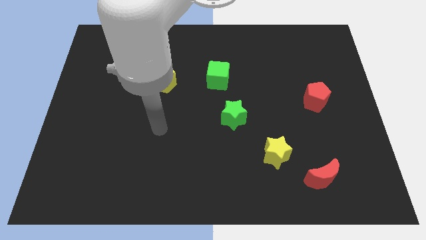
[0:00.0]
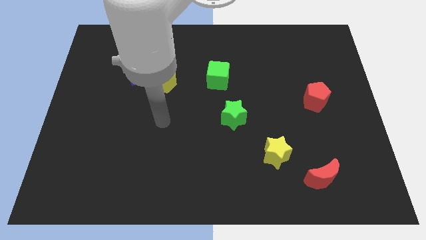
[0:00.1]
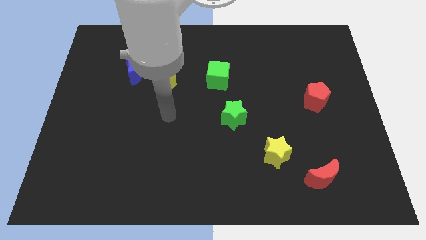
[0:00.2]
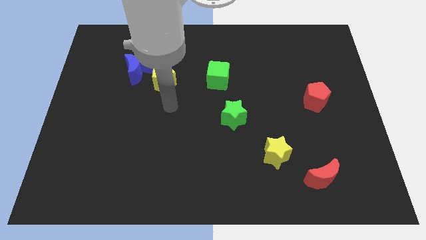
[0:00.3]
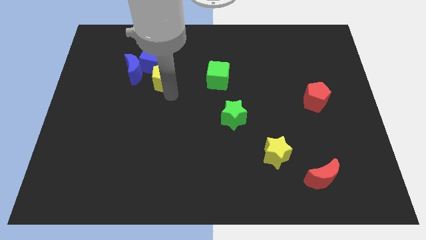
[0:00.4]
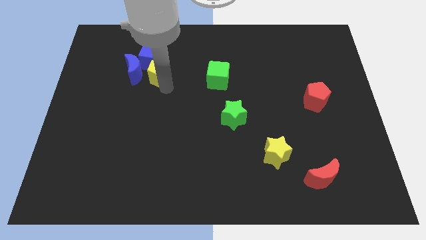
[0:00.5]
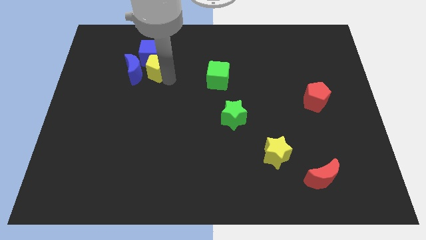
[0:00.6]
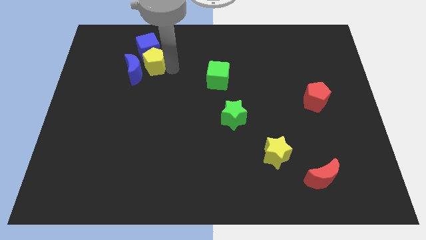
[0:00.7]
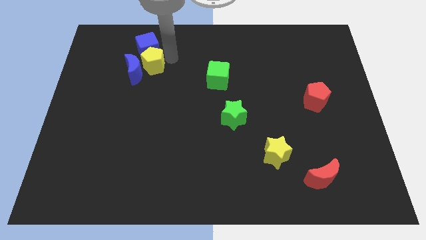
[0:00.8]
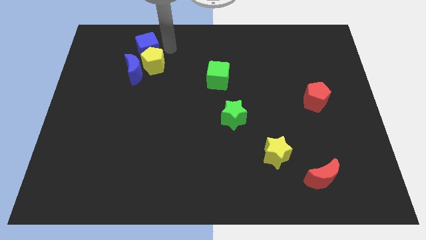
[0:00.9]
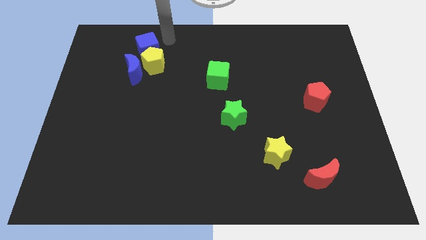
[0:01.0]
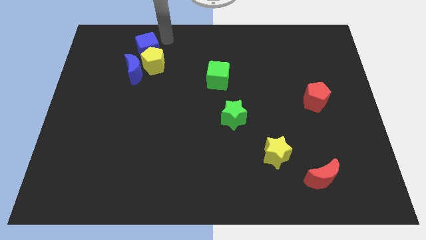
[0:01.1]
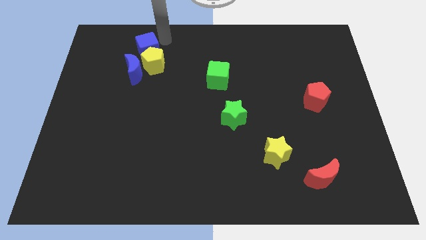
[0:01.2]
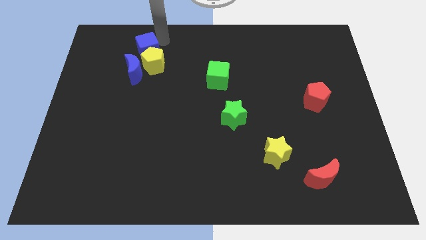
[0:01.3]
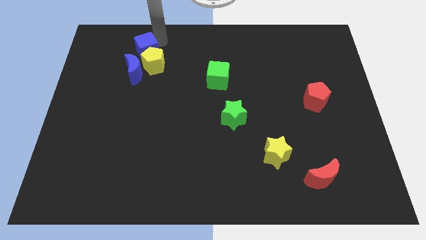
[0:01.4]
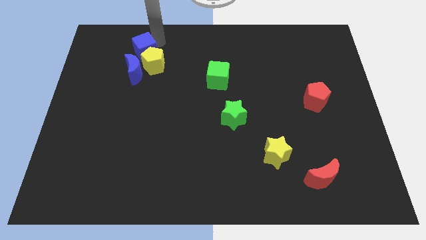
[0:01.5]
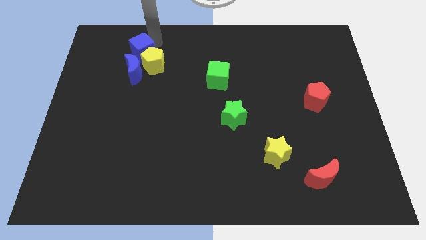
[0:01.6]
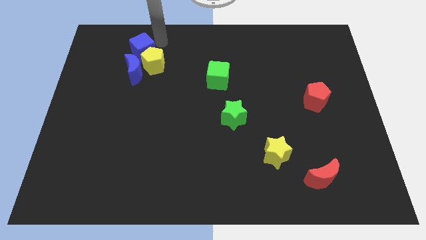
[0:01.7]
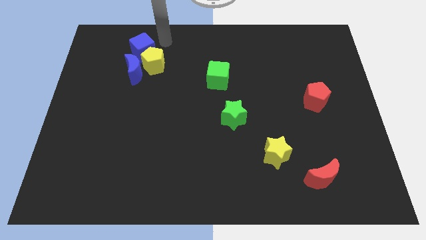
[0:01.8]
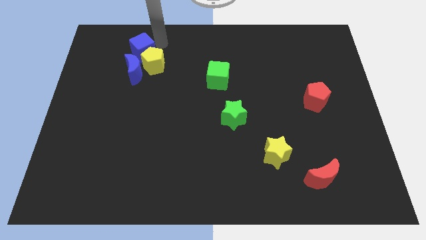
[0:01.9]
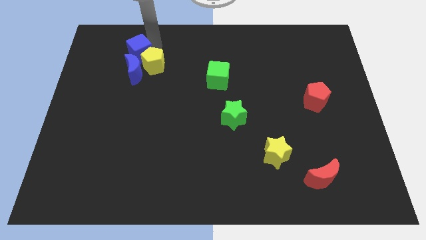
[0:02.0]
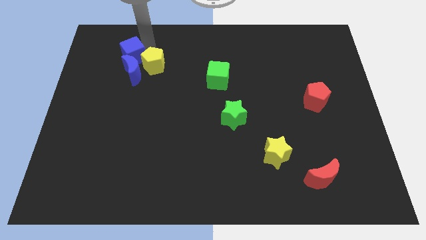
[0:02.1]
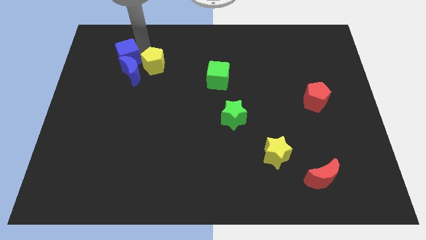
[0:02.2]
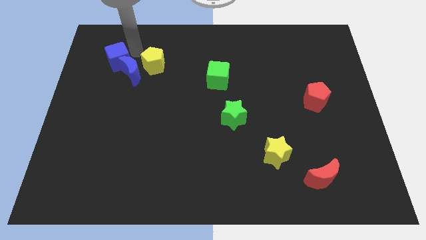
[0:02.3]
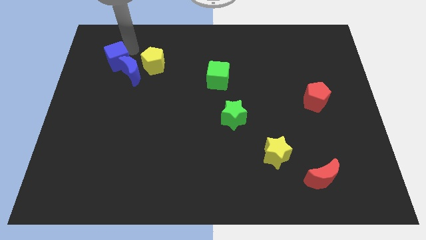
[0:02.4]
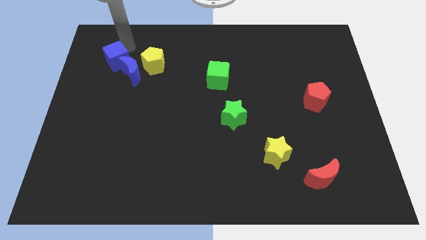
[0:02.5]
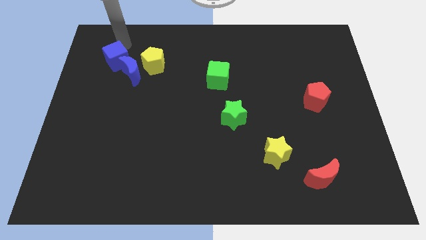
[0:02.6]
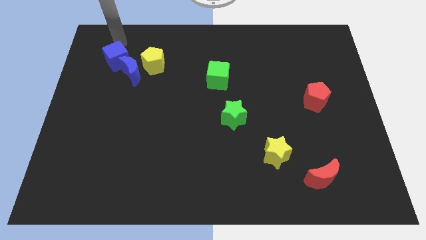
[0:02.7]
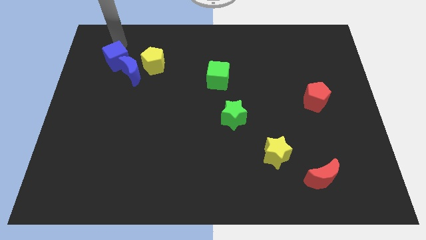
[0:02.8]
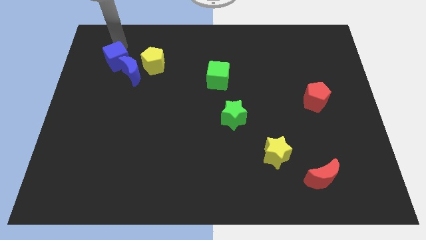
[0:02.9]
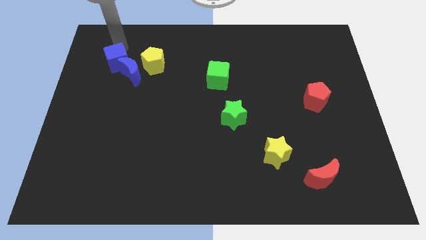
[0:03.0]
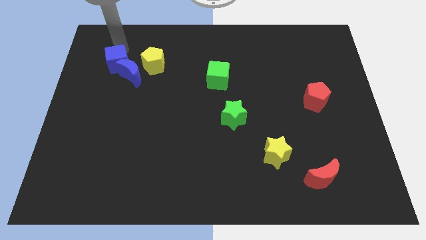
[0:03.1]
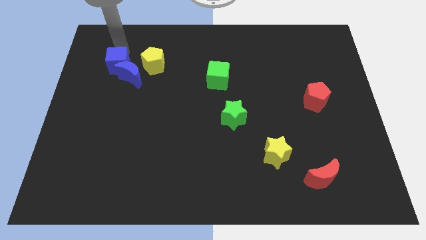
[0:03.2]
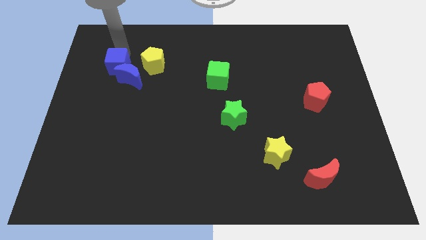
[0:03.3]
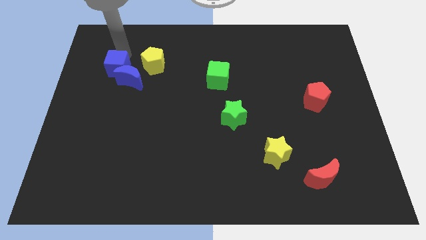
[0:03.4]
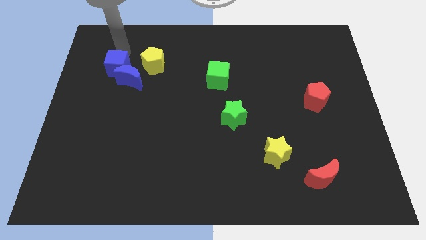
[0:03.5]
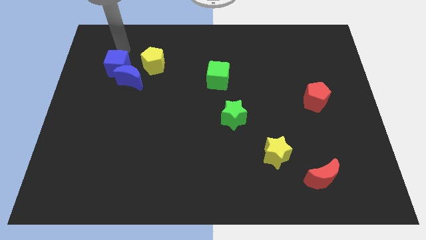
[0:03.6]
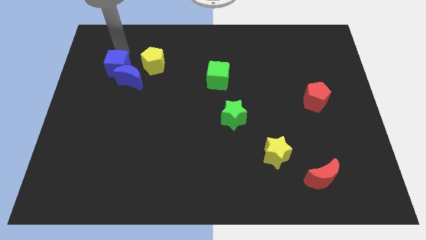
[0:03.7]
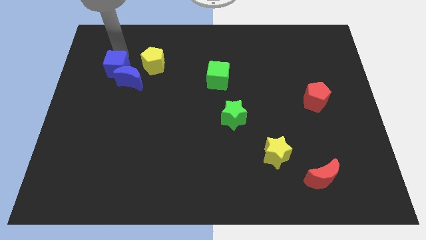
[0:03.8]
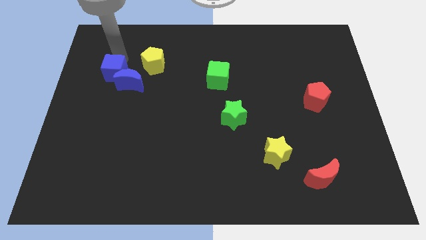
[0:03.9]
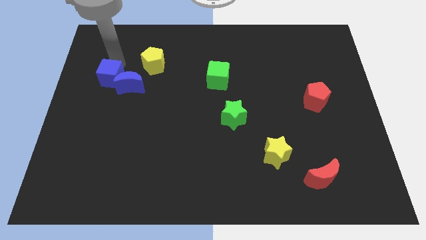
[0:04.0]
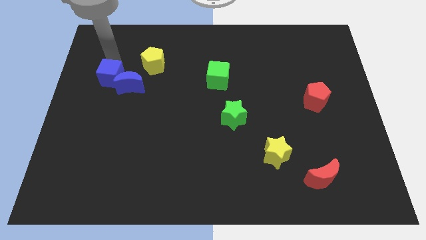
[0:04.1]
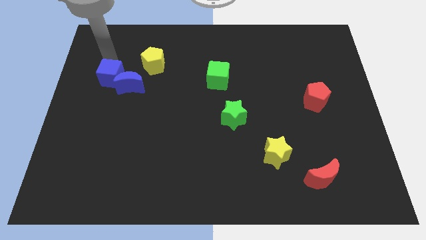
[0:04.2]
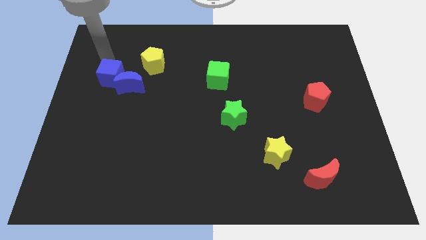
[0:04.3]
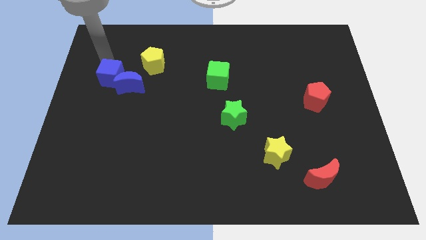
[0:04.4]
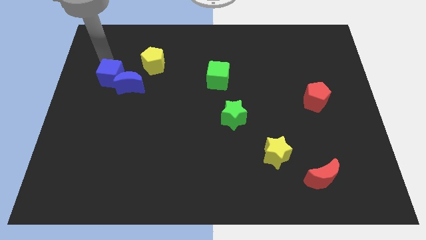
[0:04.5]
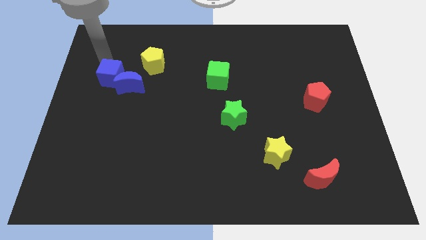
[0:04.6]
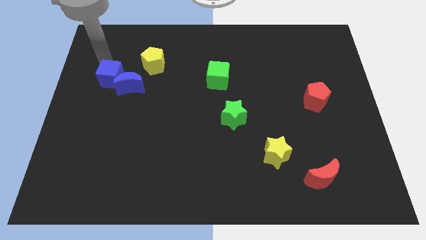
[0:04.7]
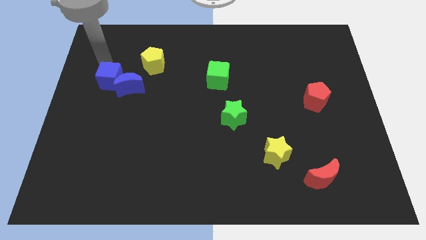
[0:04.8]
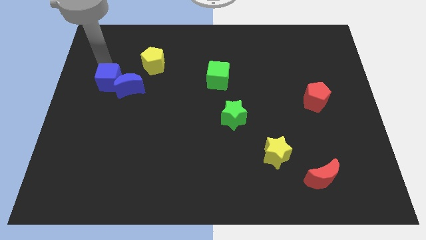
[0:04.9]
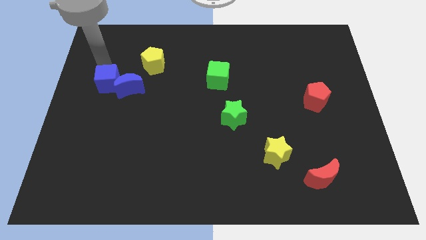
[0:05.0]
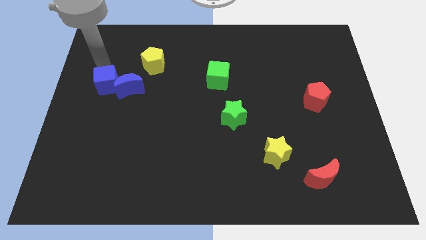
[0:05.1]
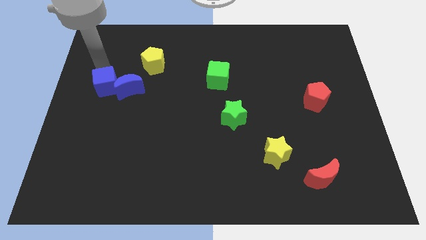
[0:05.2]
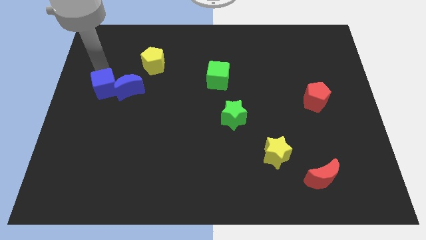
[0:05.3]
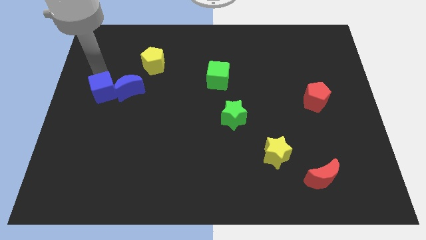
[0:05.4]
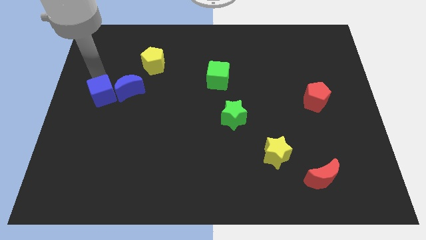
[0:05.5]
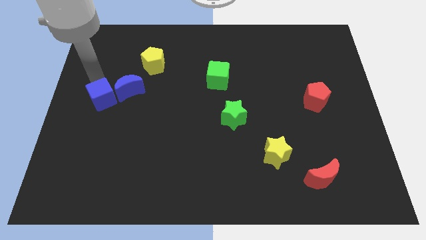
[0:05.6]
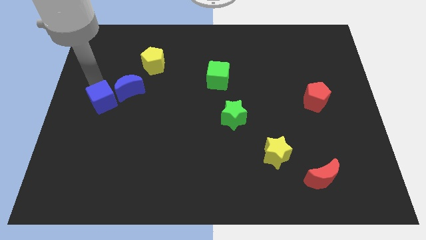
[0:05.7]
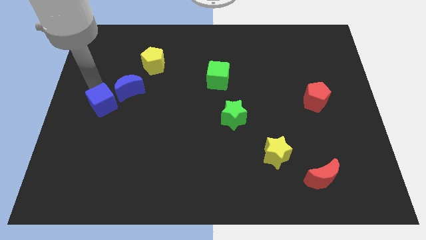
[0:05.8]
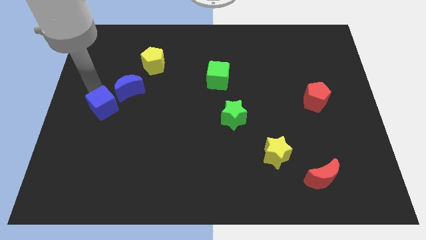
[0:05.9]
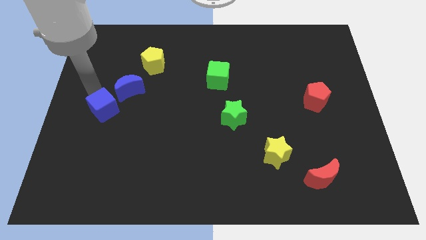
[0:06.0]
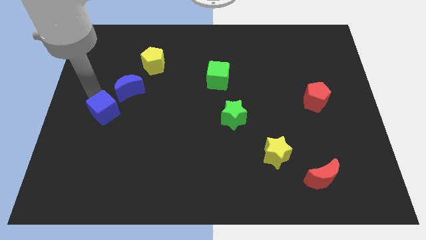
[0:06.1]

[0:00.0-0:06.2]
put the blue cube to the bottom side of the blue moon
